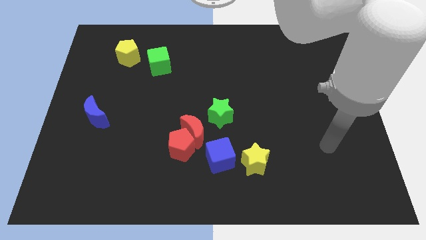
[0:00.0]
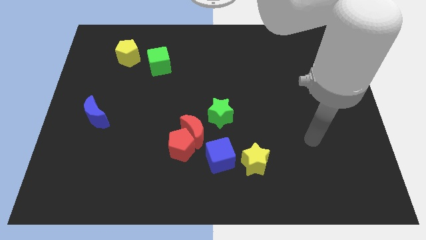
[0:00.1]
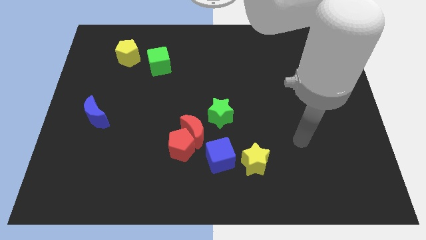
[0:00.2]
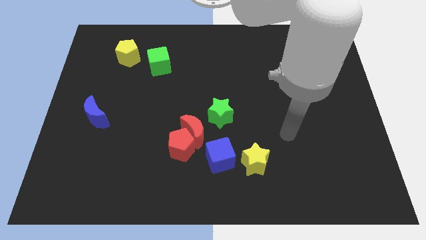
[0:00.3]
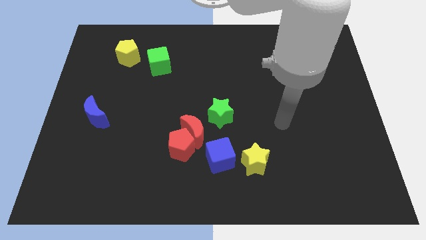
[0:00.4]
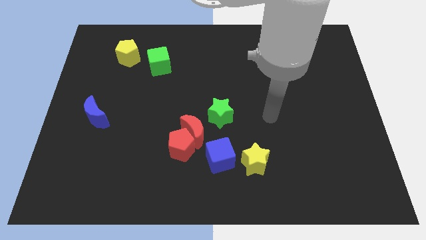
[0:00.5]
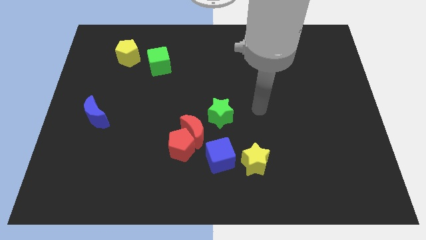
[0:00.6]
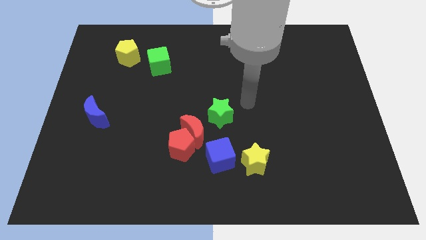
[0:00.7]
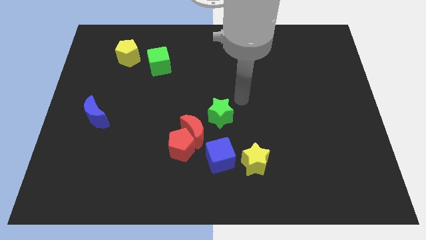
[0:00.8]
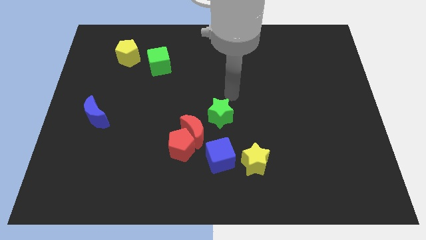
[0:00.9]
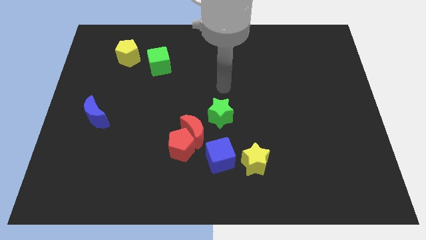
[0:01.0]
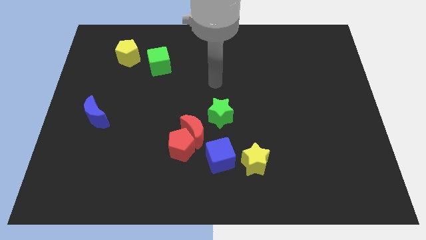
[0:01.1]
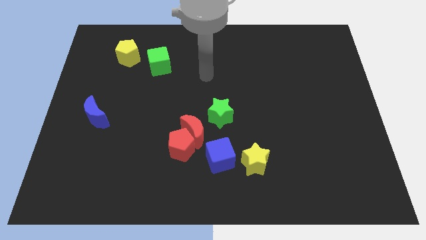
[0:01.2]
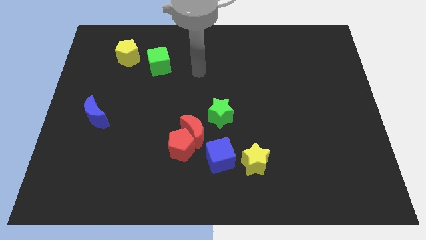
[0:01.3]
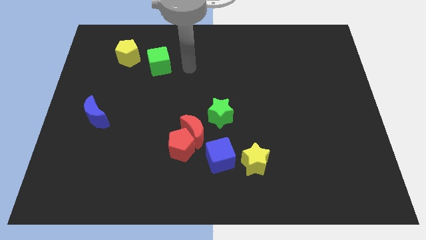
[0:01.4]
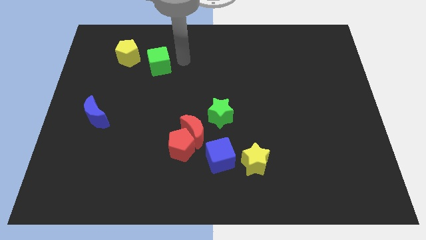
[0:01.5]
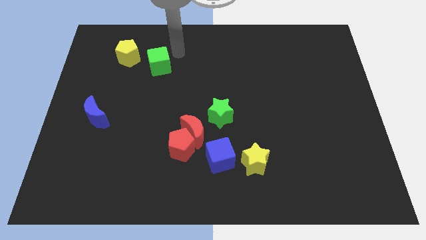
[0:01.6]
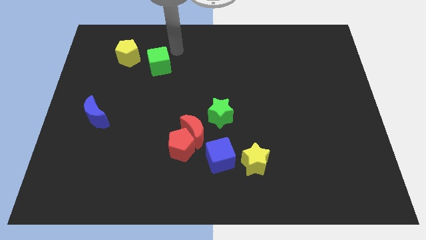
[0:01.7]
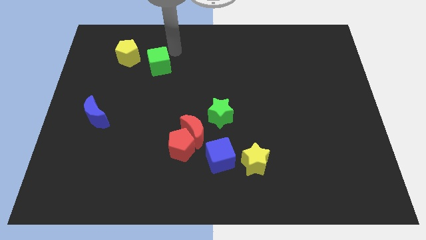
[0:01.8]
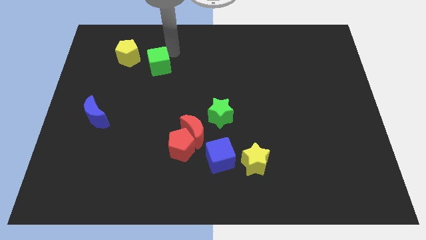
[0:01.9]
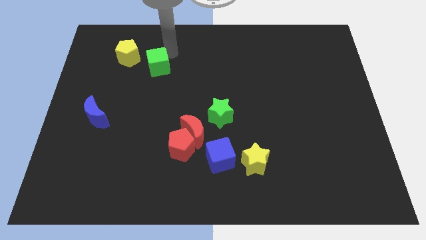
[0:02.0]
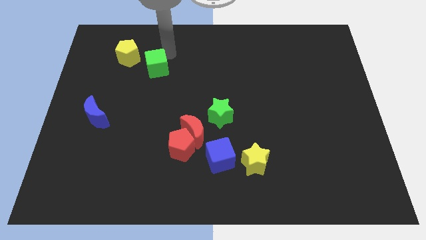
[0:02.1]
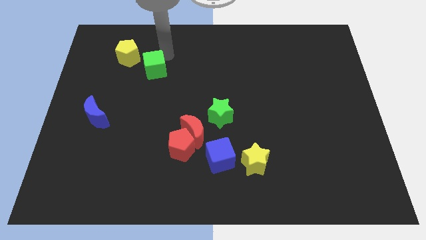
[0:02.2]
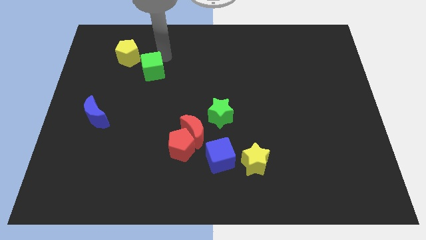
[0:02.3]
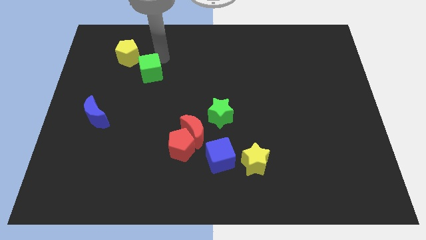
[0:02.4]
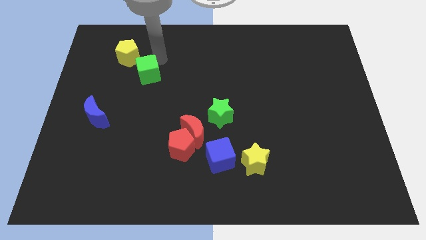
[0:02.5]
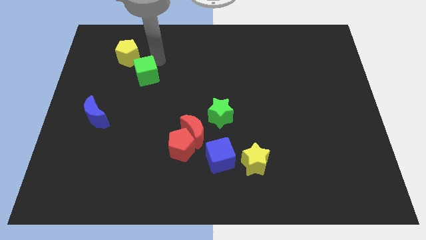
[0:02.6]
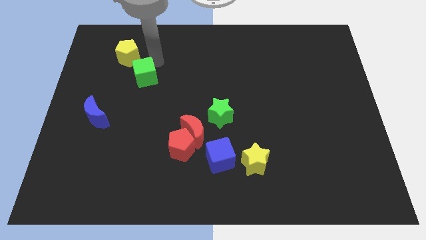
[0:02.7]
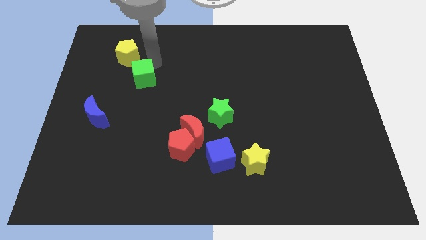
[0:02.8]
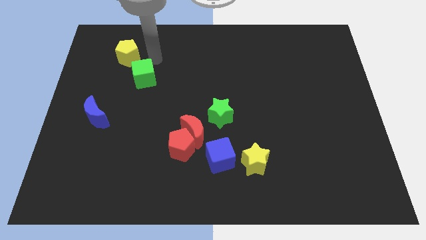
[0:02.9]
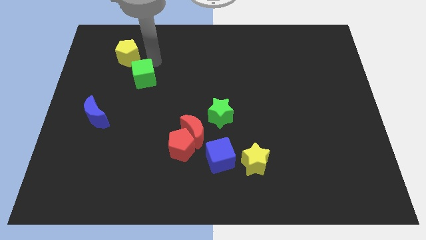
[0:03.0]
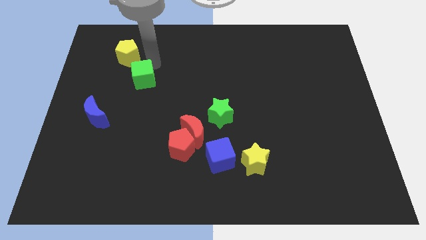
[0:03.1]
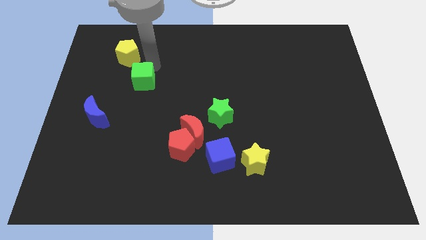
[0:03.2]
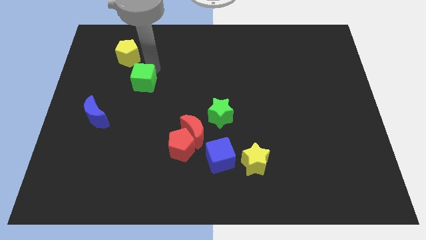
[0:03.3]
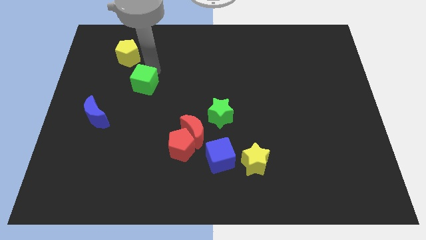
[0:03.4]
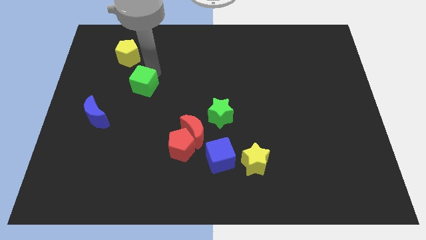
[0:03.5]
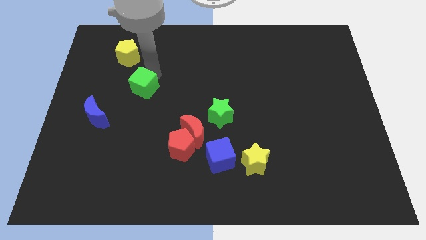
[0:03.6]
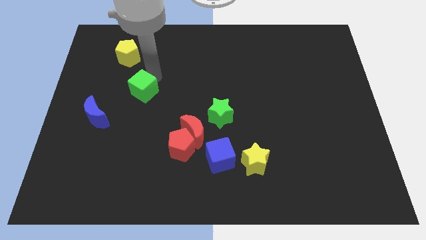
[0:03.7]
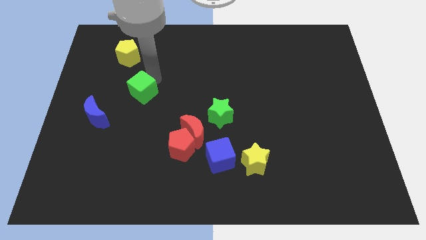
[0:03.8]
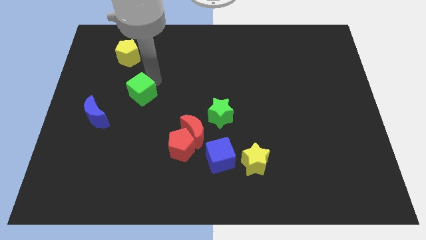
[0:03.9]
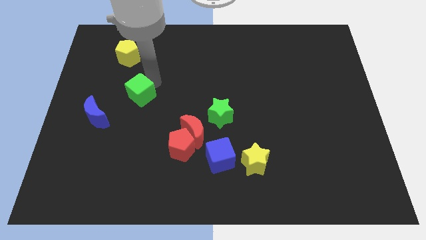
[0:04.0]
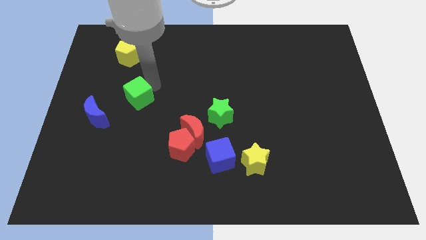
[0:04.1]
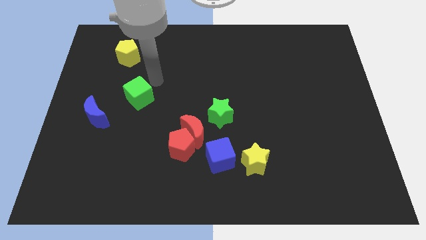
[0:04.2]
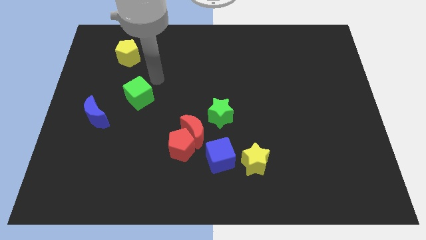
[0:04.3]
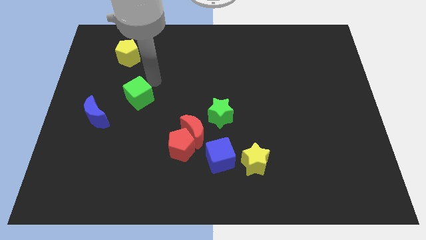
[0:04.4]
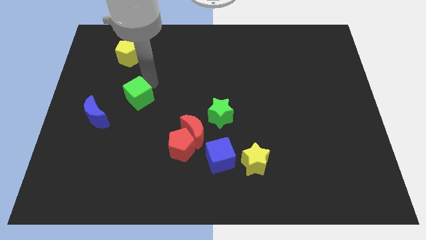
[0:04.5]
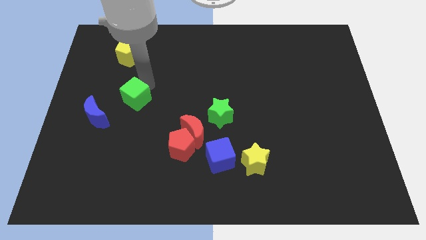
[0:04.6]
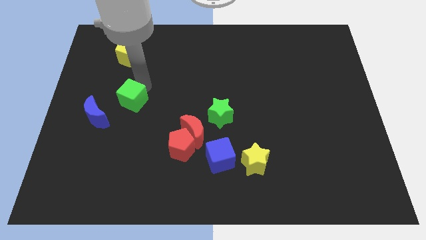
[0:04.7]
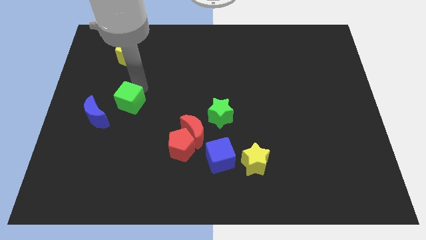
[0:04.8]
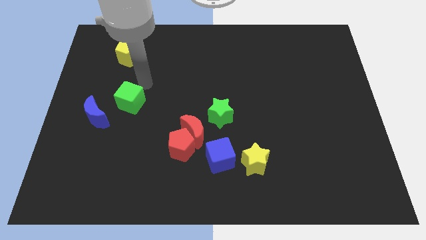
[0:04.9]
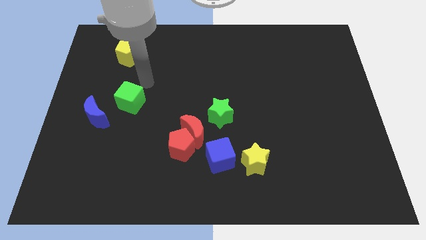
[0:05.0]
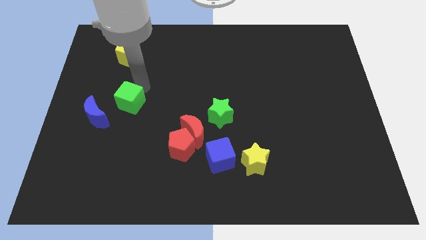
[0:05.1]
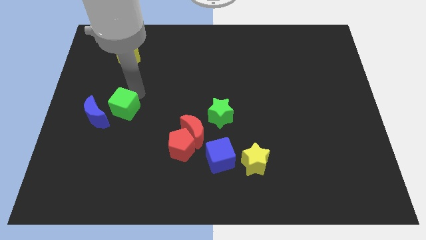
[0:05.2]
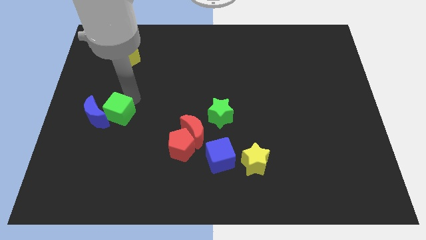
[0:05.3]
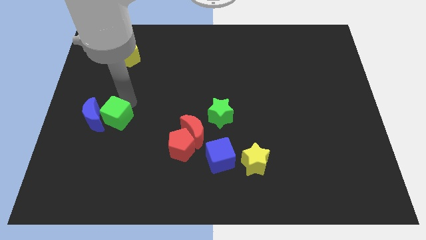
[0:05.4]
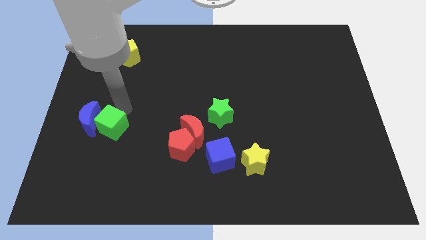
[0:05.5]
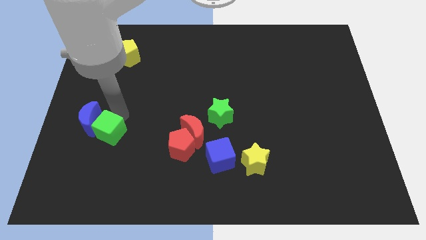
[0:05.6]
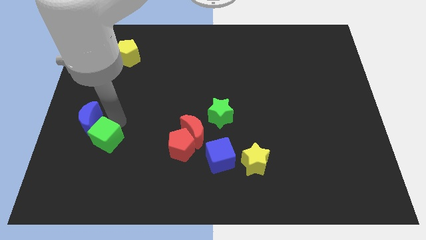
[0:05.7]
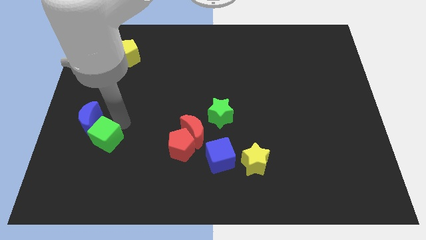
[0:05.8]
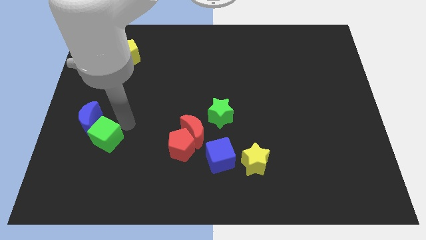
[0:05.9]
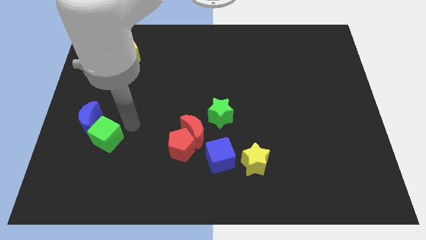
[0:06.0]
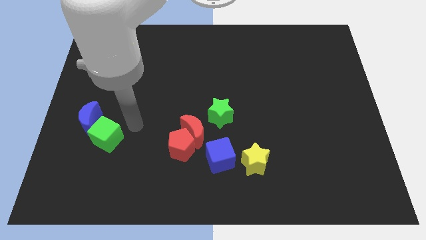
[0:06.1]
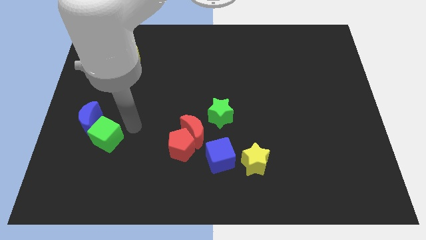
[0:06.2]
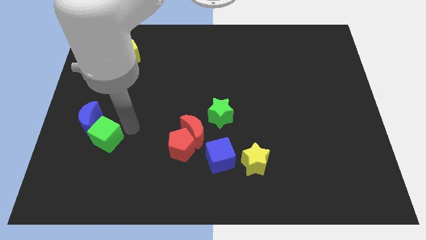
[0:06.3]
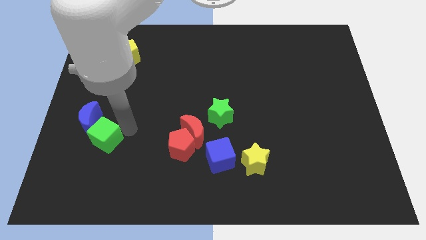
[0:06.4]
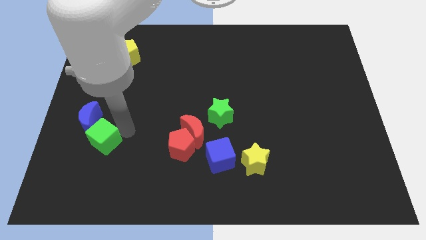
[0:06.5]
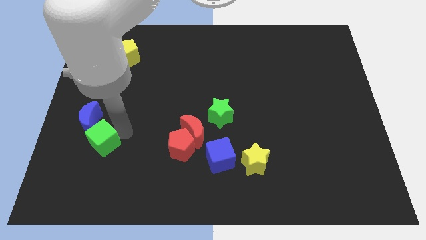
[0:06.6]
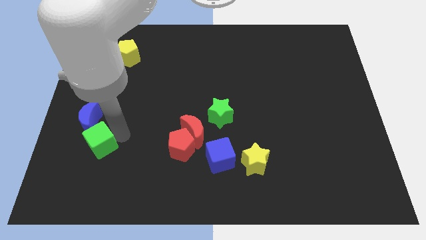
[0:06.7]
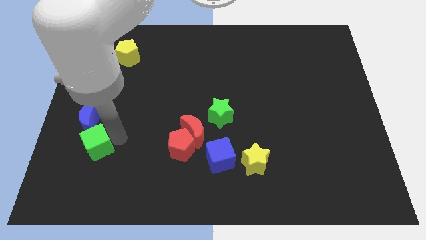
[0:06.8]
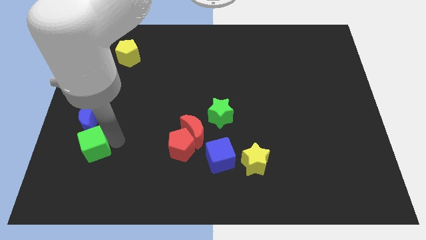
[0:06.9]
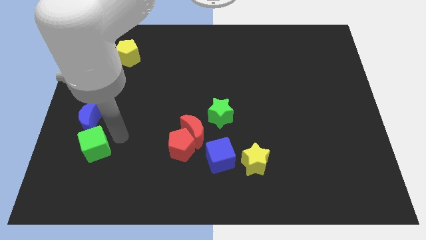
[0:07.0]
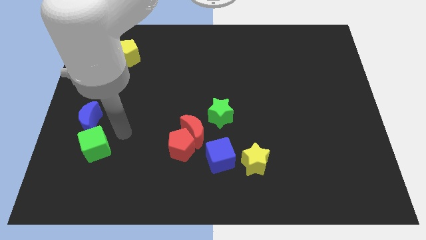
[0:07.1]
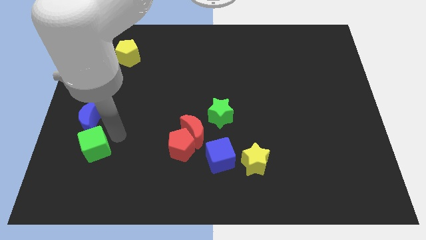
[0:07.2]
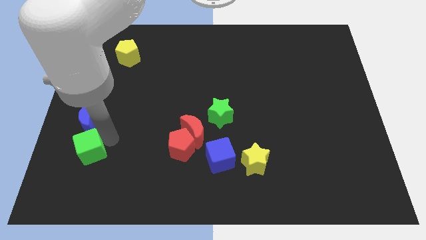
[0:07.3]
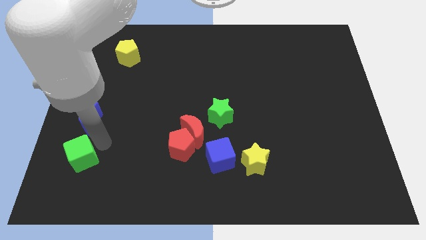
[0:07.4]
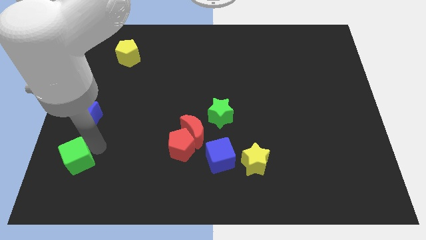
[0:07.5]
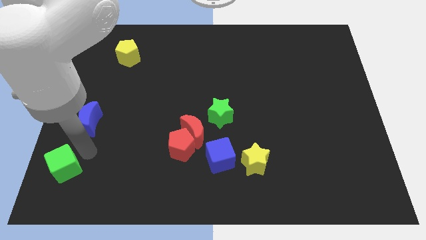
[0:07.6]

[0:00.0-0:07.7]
push the green cube to the lower left corner
